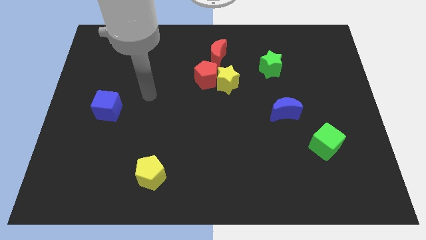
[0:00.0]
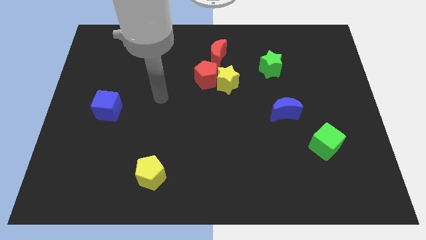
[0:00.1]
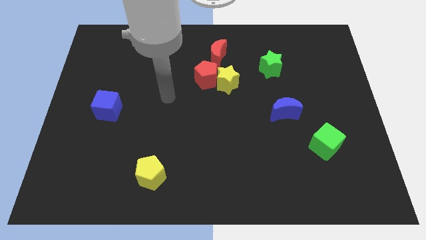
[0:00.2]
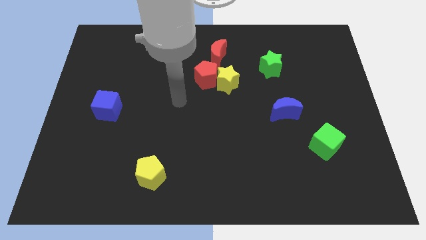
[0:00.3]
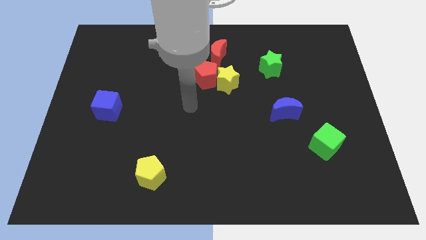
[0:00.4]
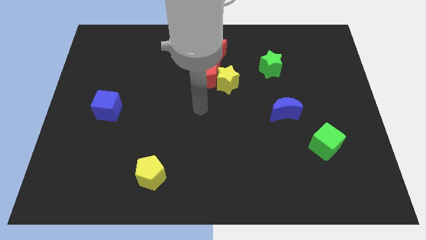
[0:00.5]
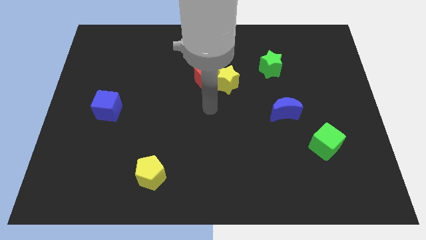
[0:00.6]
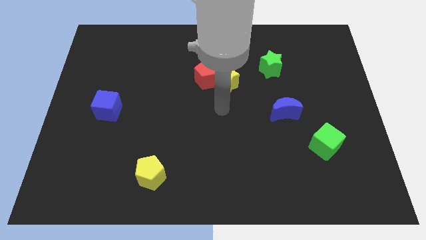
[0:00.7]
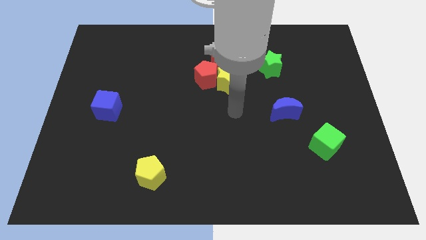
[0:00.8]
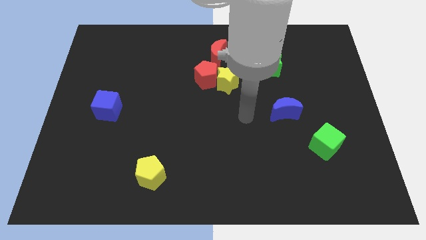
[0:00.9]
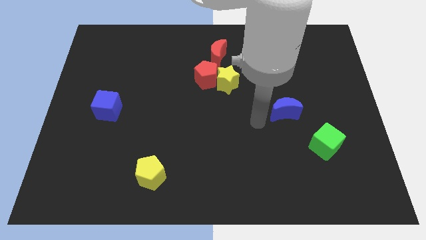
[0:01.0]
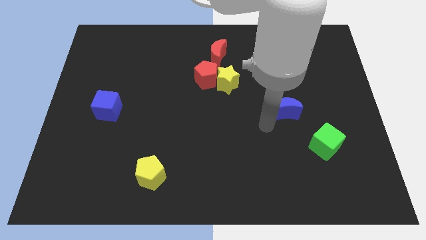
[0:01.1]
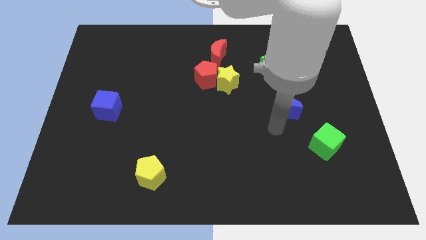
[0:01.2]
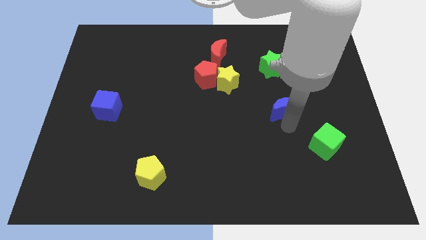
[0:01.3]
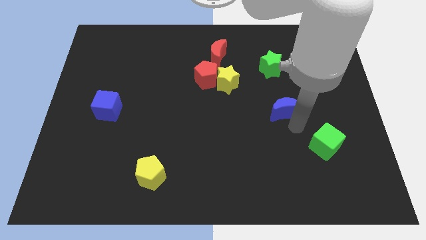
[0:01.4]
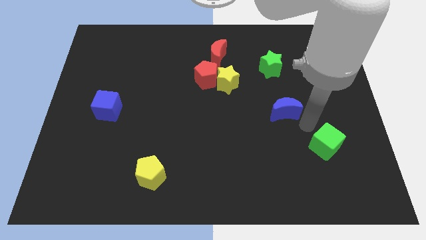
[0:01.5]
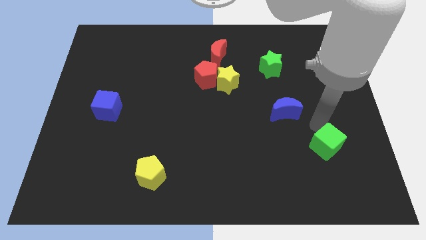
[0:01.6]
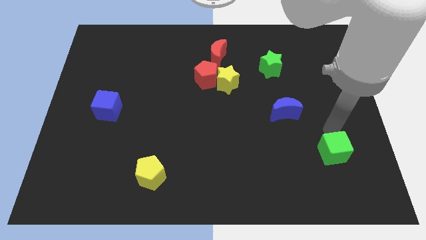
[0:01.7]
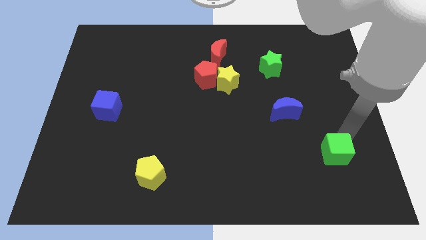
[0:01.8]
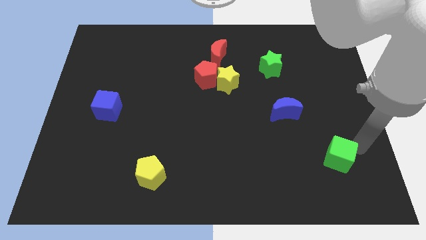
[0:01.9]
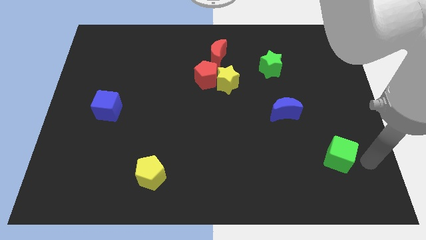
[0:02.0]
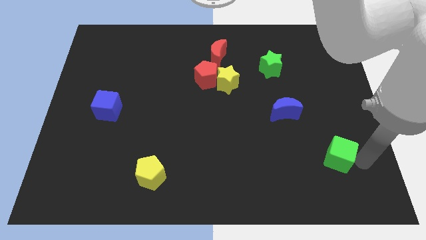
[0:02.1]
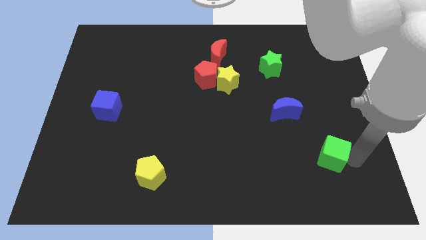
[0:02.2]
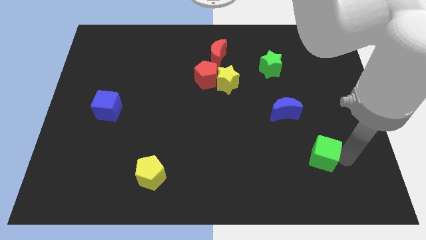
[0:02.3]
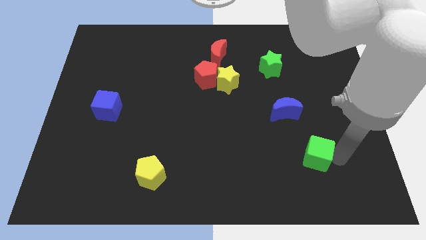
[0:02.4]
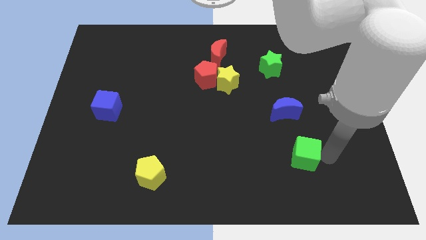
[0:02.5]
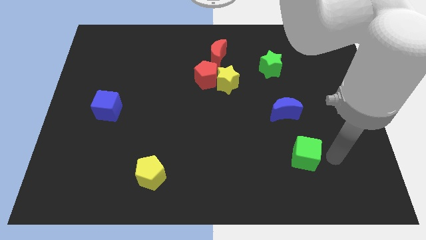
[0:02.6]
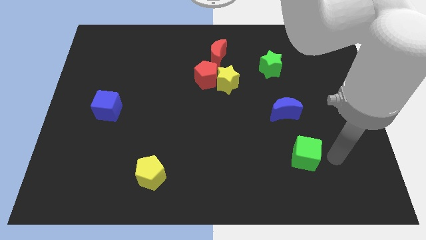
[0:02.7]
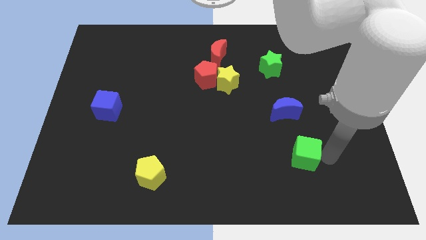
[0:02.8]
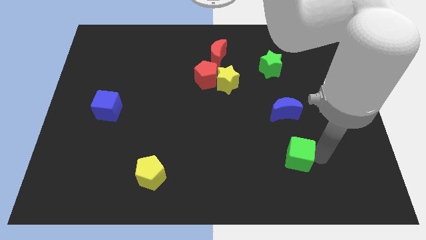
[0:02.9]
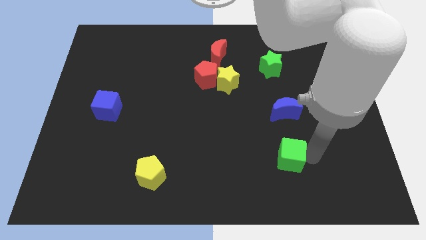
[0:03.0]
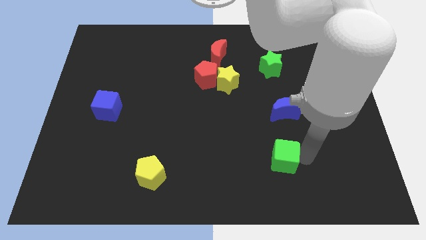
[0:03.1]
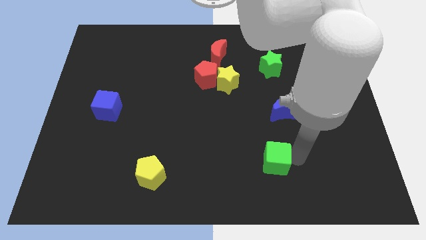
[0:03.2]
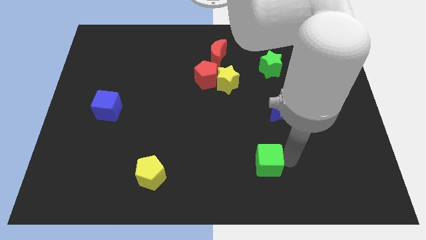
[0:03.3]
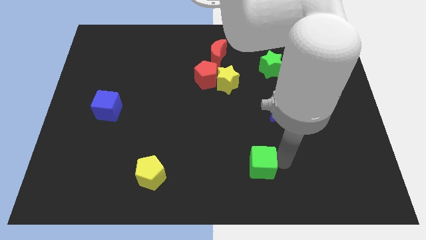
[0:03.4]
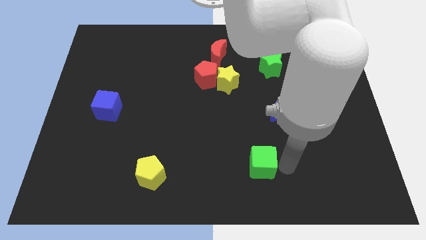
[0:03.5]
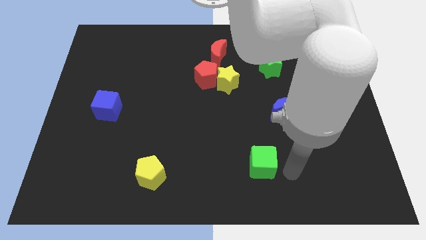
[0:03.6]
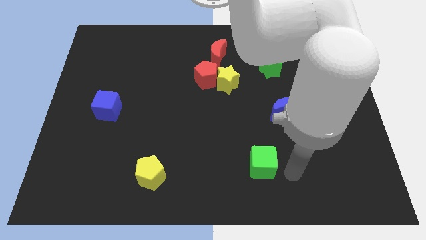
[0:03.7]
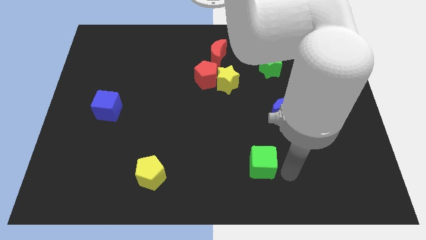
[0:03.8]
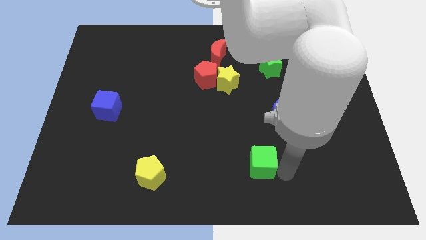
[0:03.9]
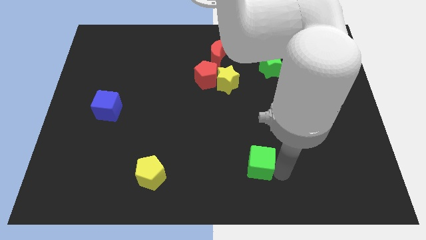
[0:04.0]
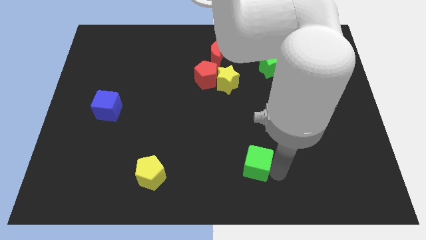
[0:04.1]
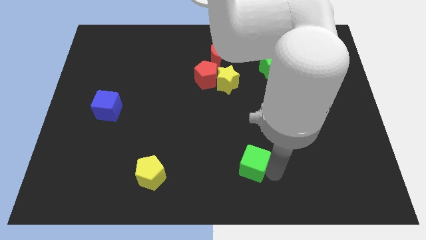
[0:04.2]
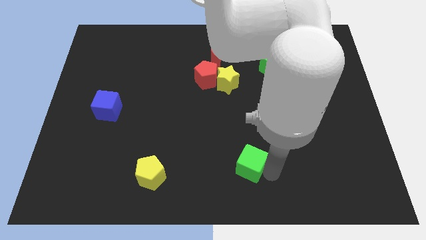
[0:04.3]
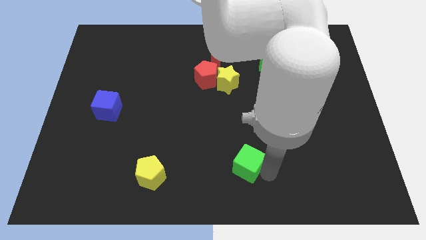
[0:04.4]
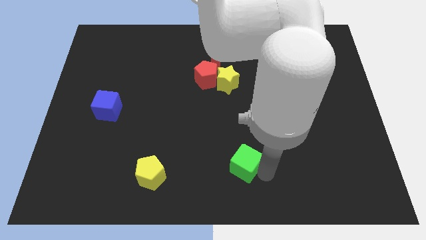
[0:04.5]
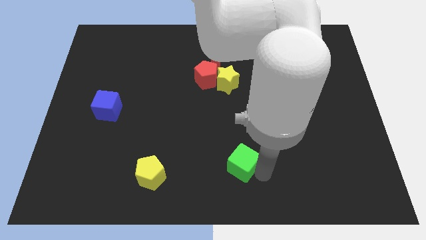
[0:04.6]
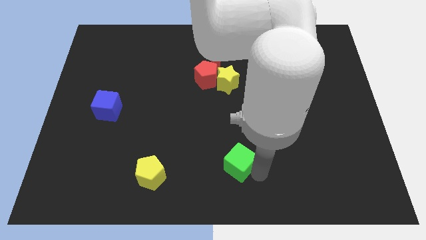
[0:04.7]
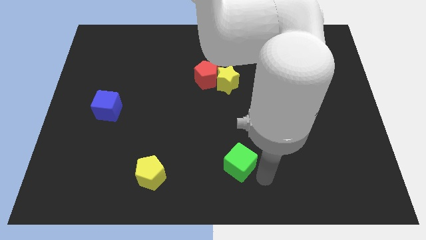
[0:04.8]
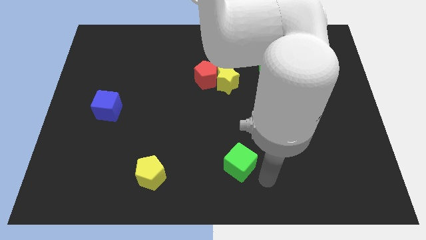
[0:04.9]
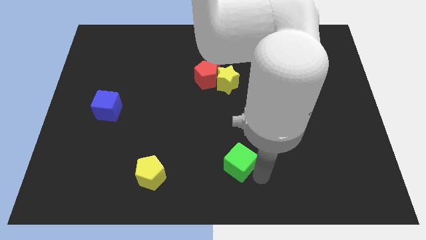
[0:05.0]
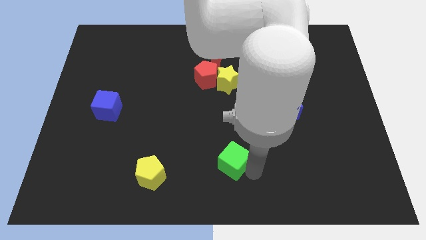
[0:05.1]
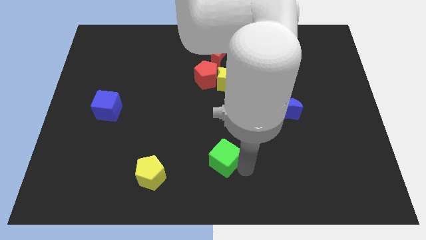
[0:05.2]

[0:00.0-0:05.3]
push the green cube to the left

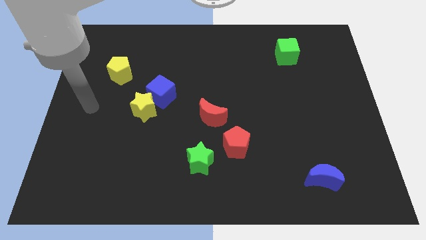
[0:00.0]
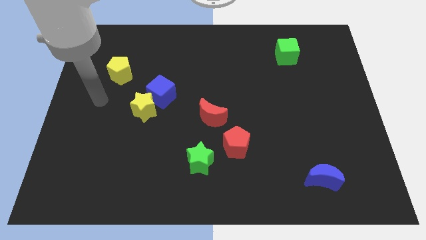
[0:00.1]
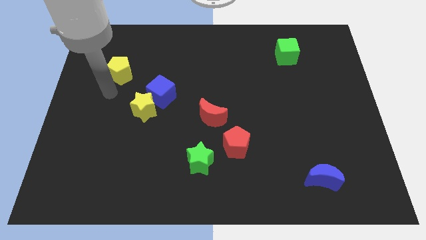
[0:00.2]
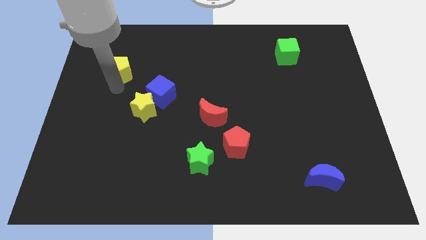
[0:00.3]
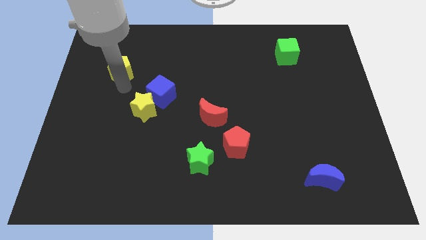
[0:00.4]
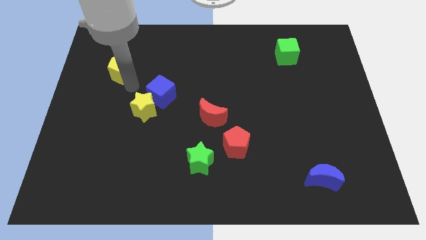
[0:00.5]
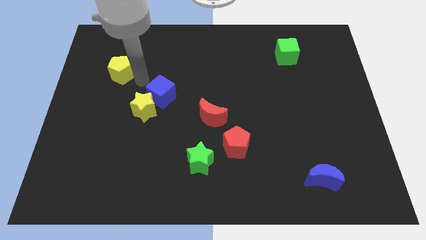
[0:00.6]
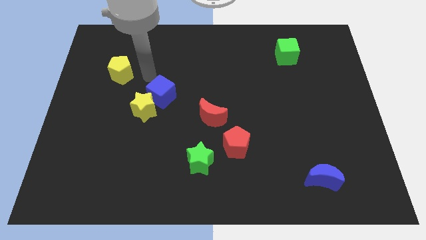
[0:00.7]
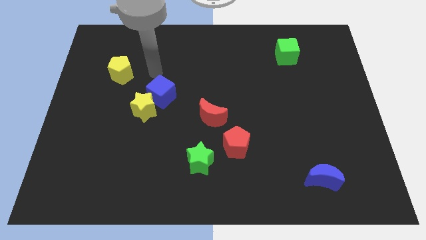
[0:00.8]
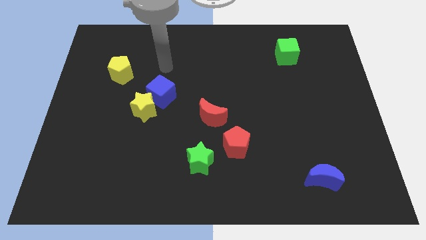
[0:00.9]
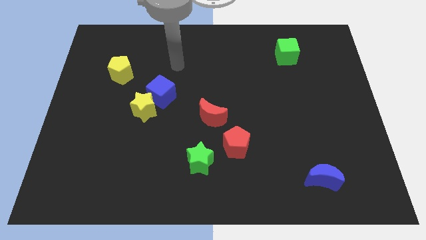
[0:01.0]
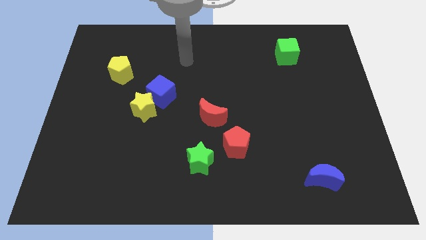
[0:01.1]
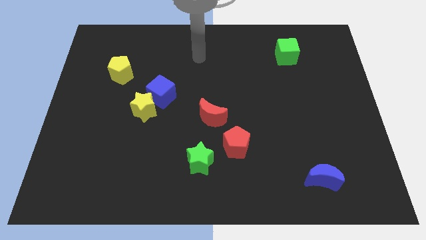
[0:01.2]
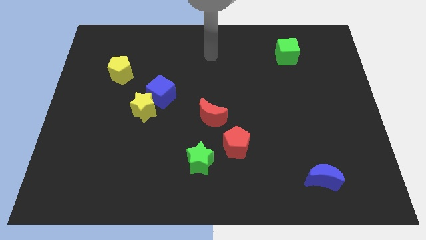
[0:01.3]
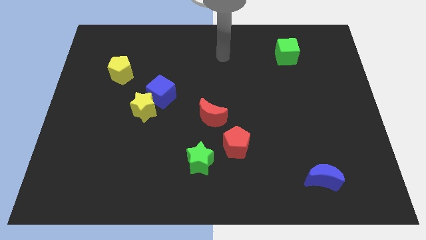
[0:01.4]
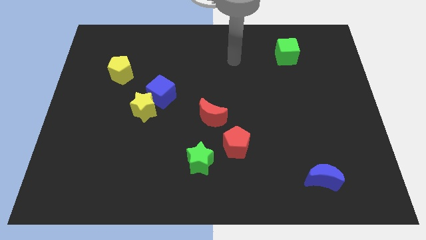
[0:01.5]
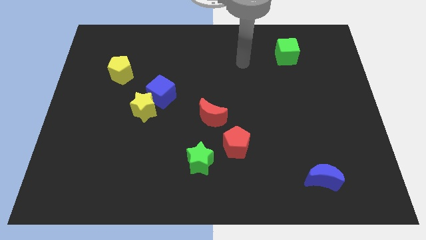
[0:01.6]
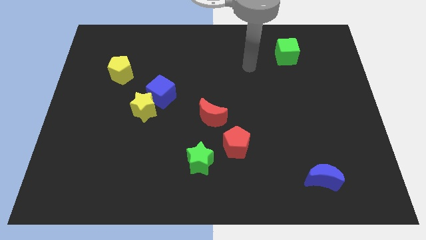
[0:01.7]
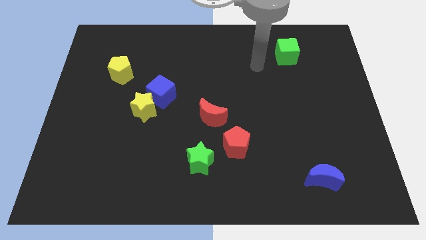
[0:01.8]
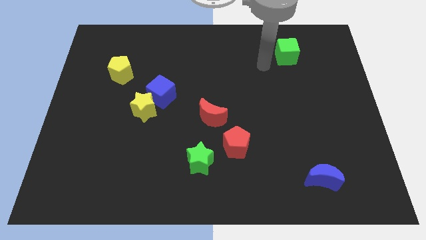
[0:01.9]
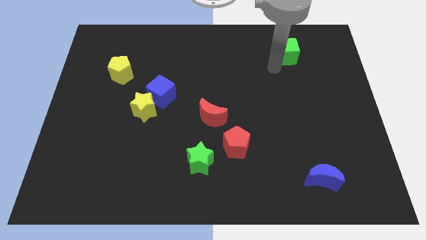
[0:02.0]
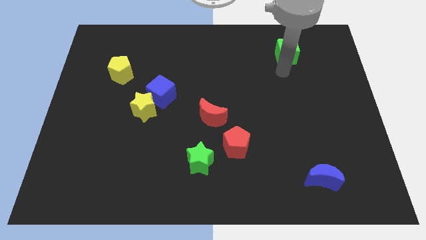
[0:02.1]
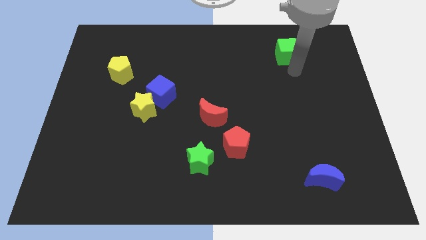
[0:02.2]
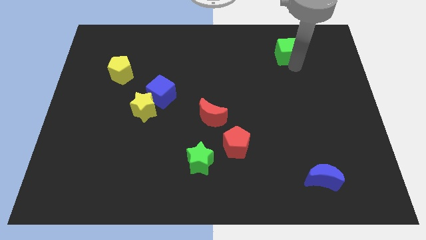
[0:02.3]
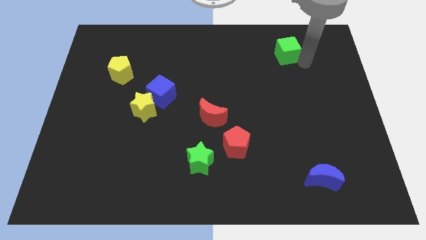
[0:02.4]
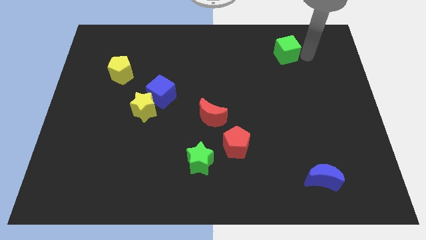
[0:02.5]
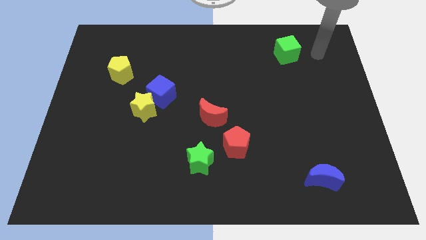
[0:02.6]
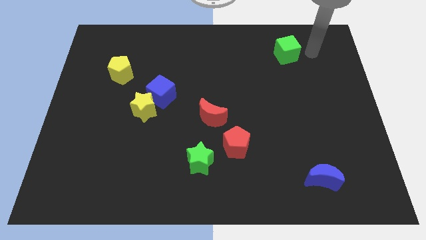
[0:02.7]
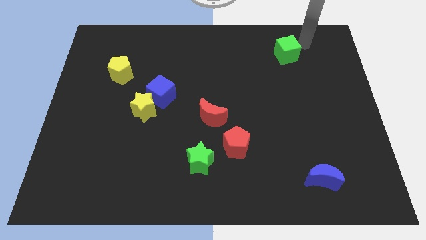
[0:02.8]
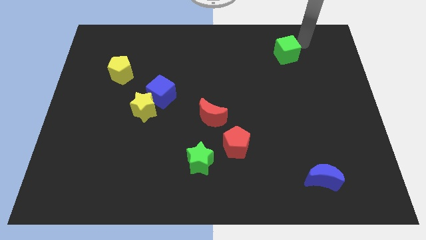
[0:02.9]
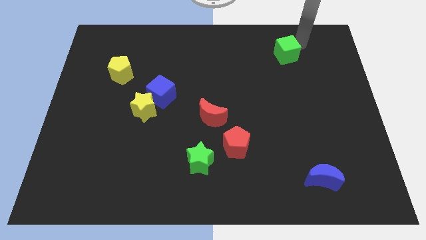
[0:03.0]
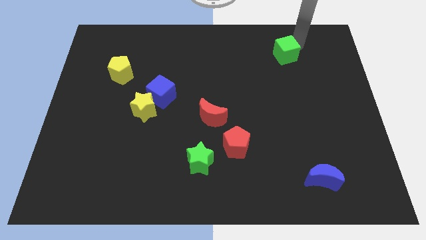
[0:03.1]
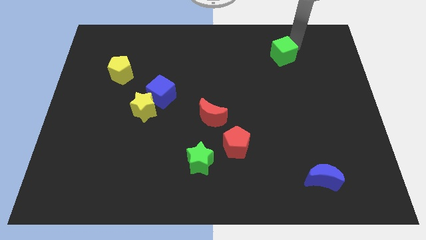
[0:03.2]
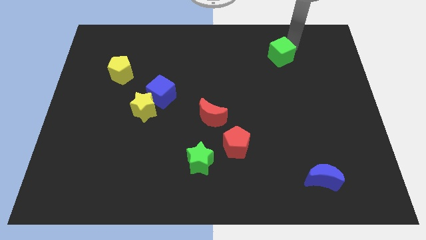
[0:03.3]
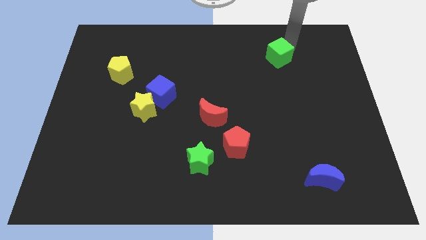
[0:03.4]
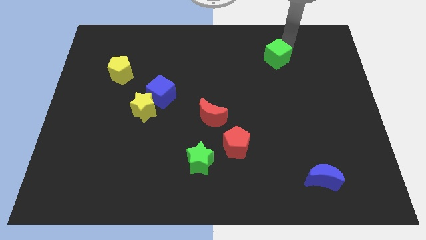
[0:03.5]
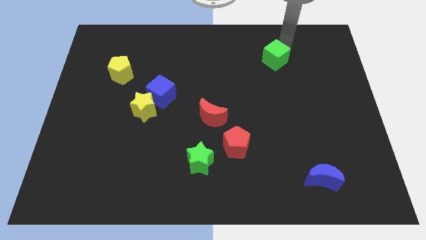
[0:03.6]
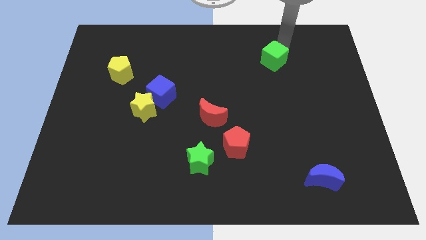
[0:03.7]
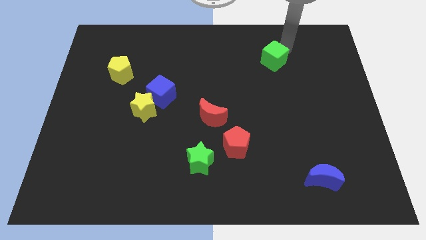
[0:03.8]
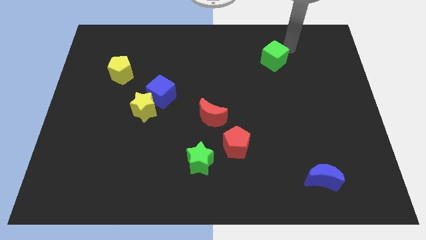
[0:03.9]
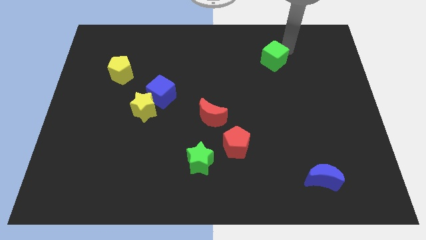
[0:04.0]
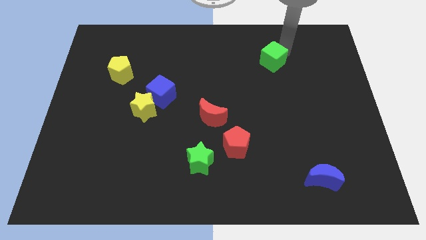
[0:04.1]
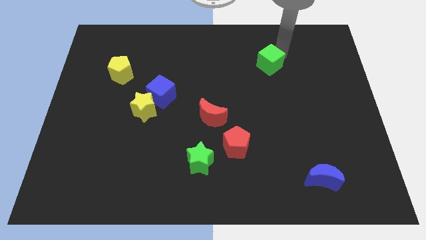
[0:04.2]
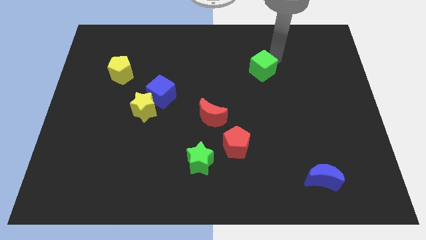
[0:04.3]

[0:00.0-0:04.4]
slide the green cube down and to the left slightly
